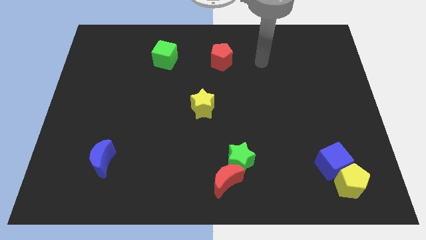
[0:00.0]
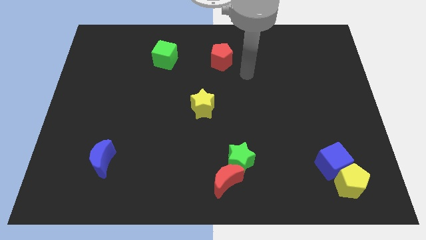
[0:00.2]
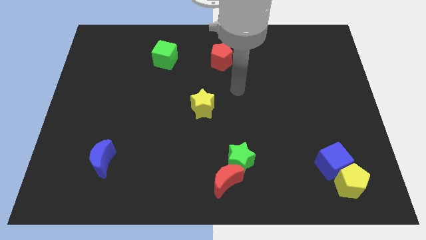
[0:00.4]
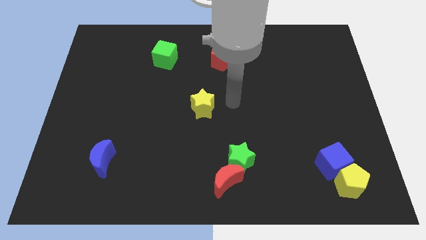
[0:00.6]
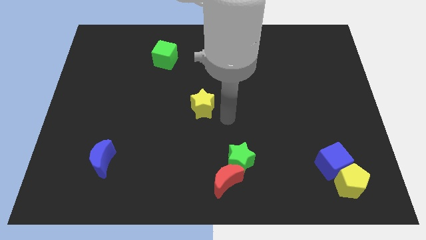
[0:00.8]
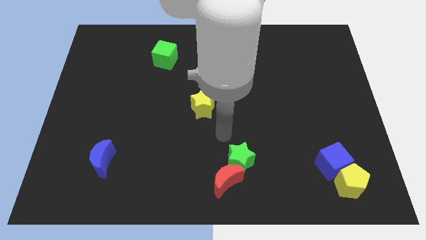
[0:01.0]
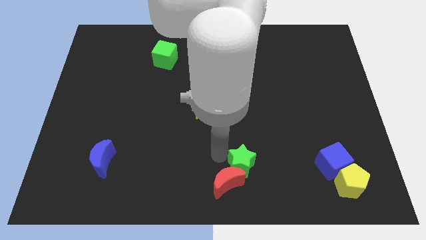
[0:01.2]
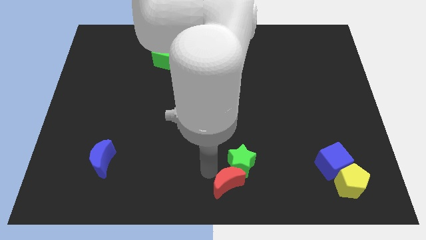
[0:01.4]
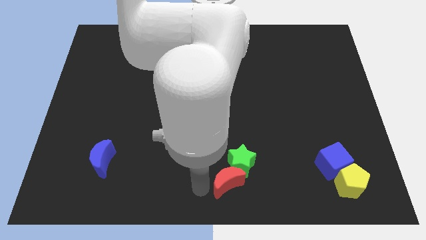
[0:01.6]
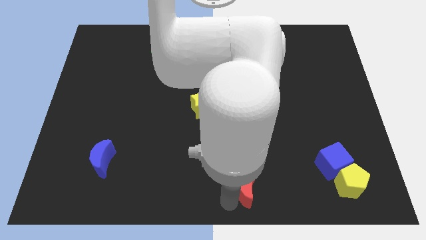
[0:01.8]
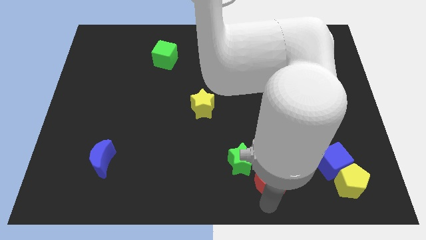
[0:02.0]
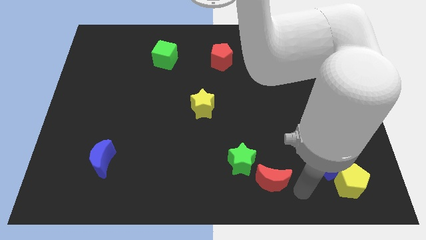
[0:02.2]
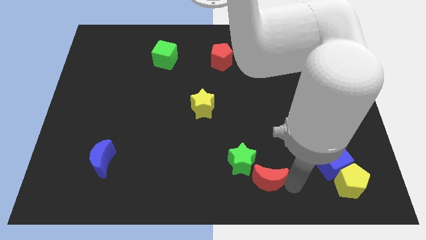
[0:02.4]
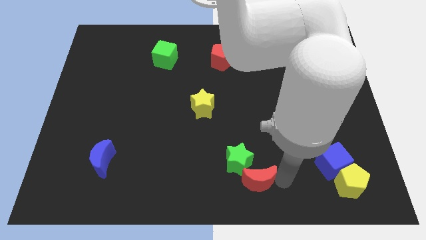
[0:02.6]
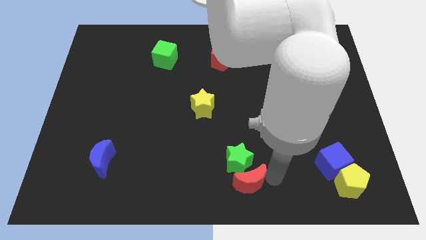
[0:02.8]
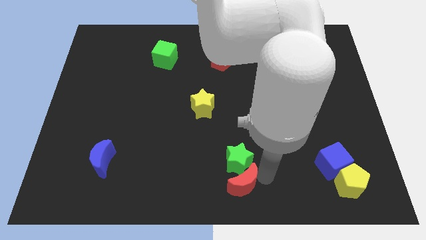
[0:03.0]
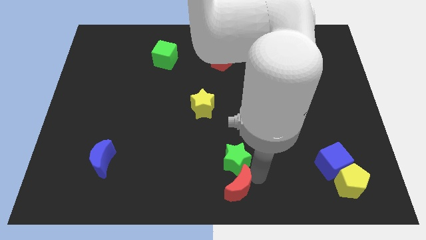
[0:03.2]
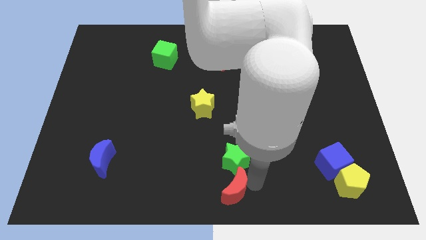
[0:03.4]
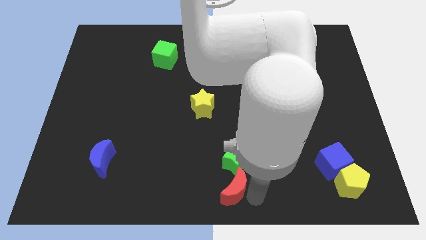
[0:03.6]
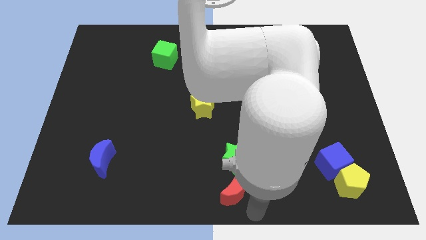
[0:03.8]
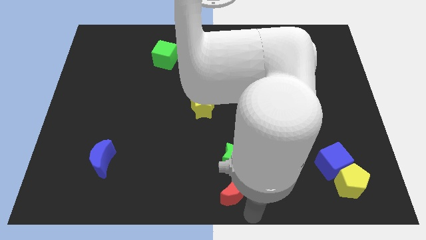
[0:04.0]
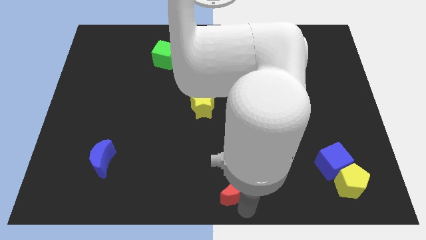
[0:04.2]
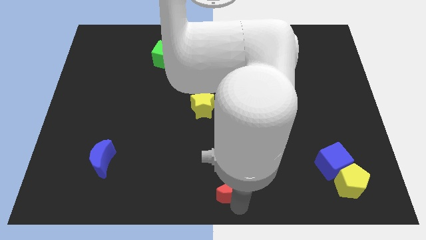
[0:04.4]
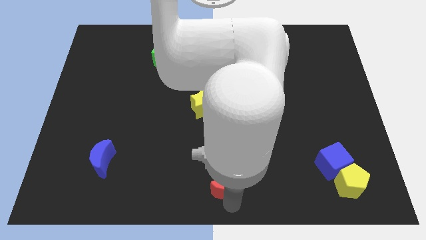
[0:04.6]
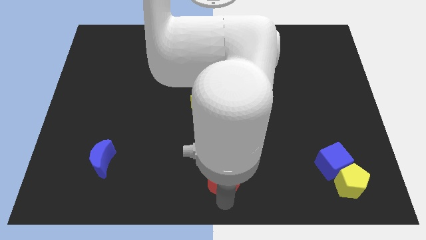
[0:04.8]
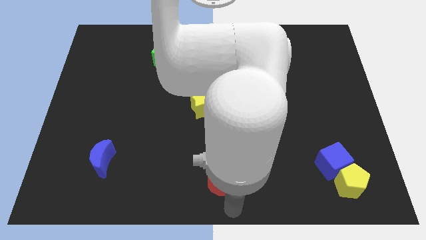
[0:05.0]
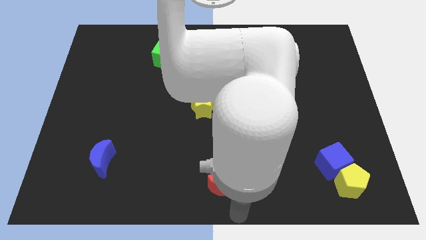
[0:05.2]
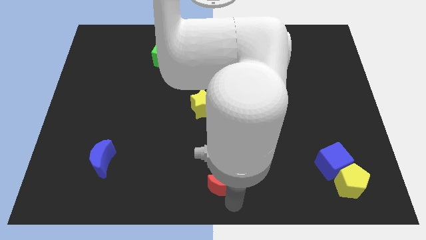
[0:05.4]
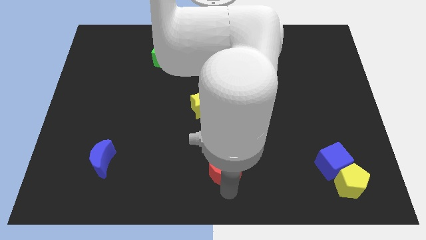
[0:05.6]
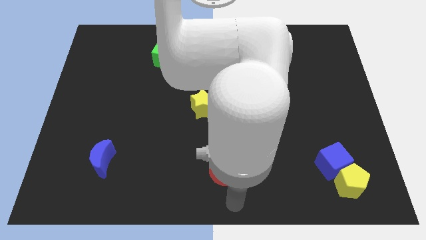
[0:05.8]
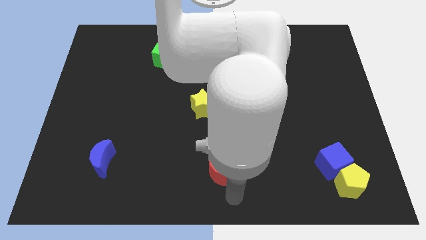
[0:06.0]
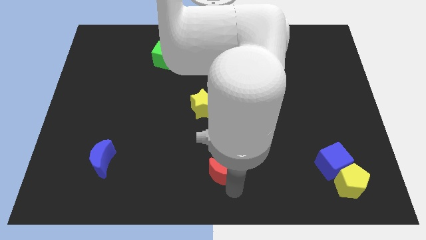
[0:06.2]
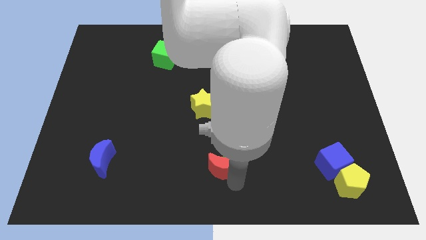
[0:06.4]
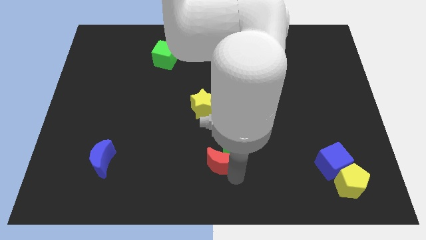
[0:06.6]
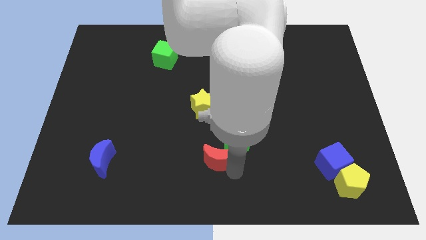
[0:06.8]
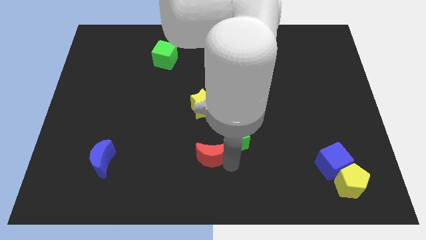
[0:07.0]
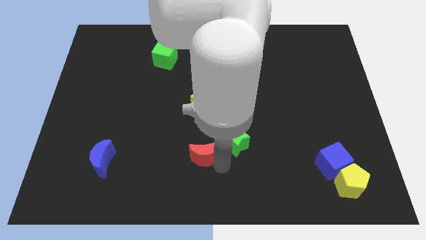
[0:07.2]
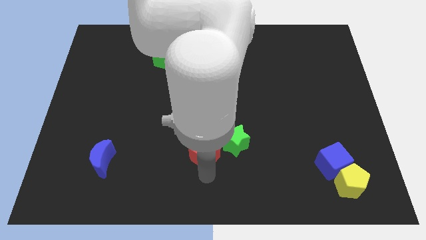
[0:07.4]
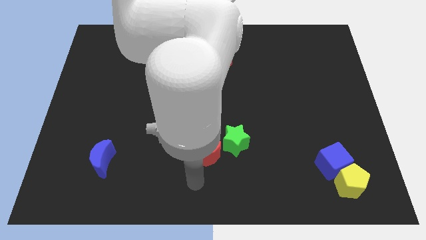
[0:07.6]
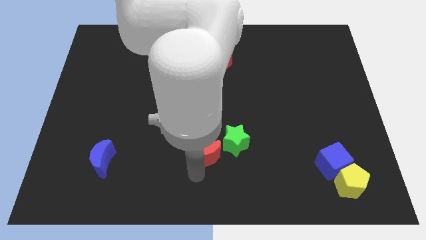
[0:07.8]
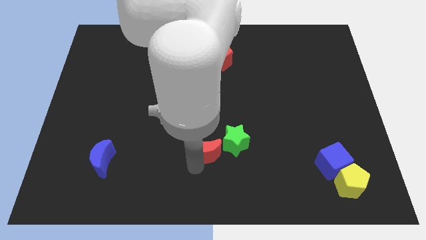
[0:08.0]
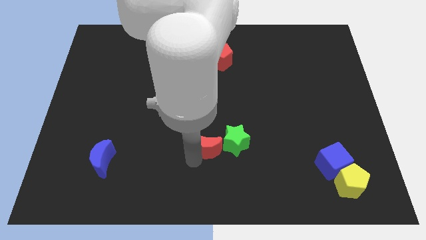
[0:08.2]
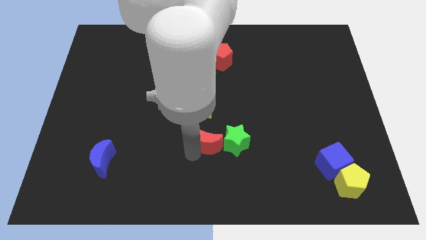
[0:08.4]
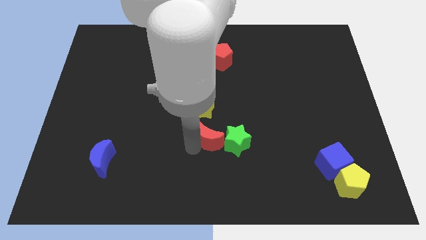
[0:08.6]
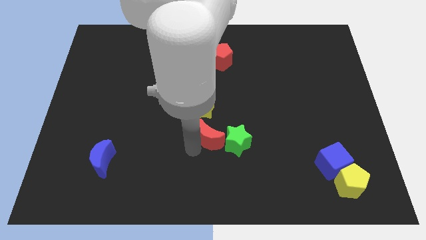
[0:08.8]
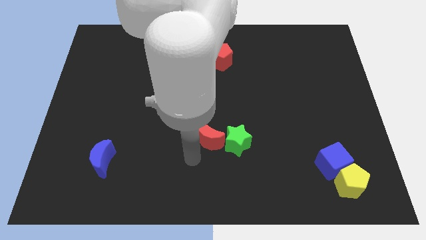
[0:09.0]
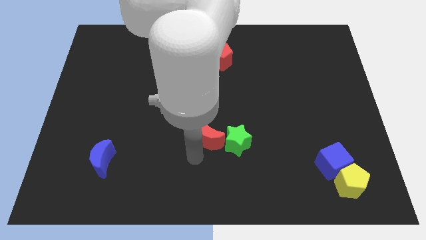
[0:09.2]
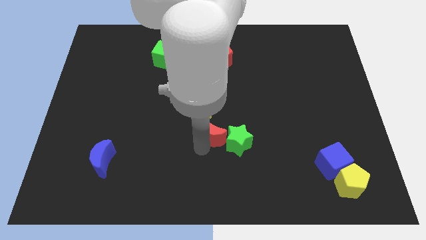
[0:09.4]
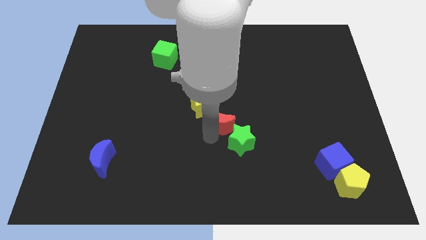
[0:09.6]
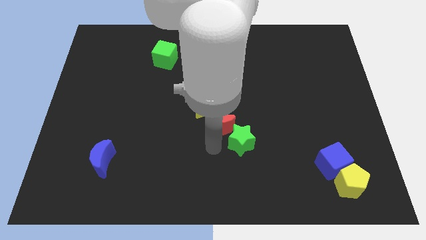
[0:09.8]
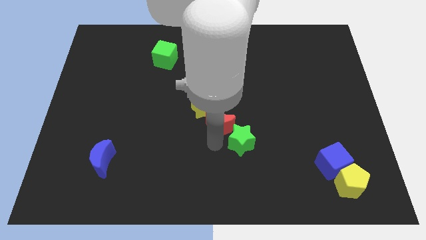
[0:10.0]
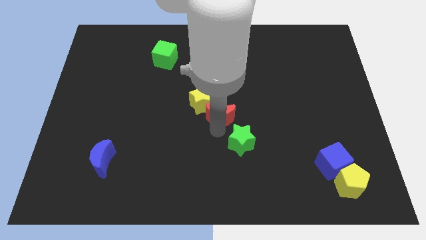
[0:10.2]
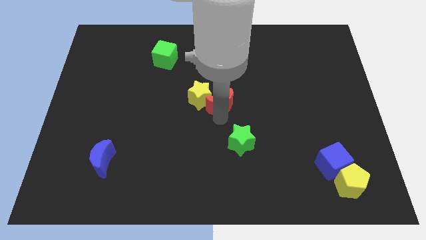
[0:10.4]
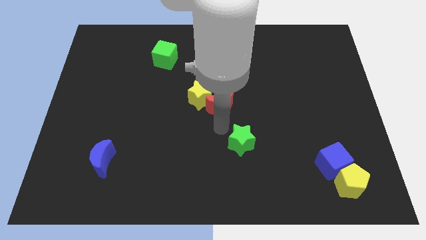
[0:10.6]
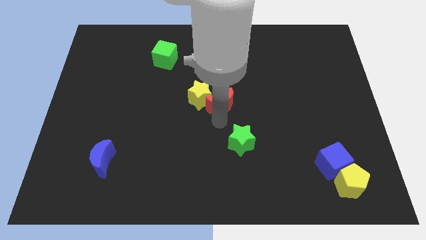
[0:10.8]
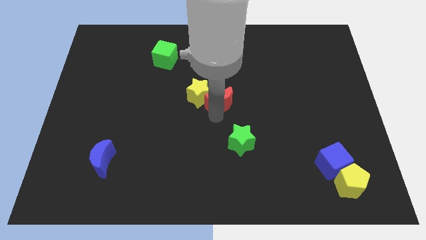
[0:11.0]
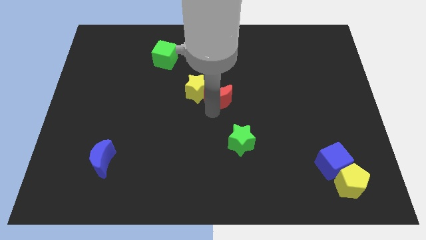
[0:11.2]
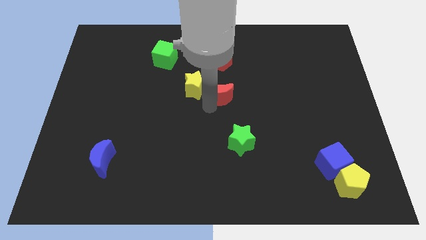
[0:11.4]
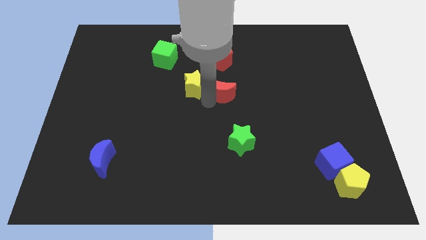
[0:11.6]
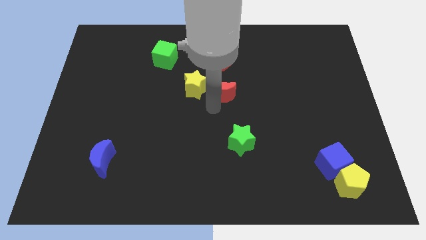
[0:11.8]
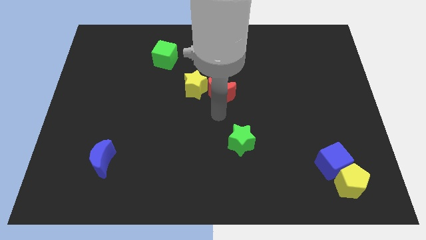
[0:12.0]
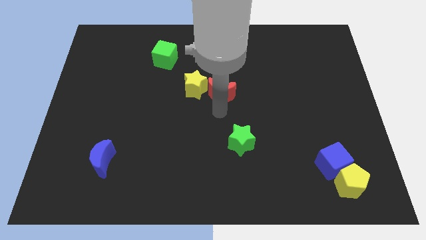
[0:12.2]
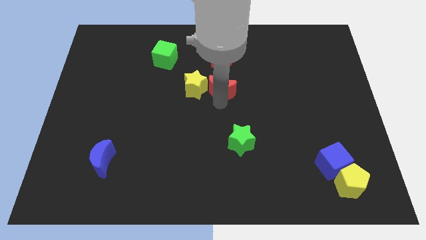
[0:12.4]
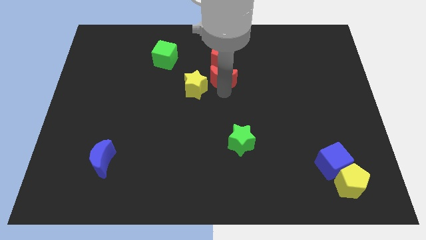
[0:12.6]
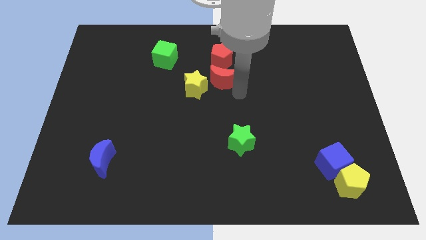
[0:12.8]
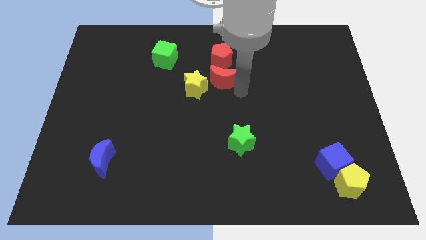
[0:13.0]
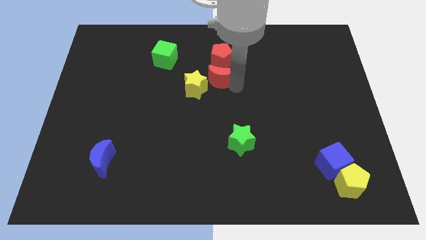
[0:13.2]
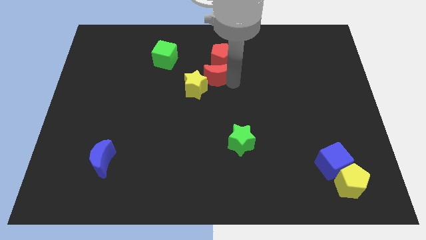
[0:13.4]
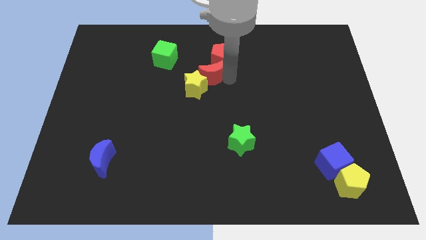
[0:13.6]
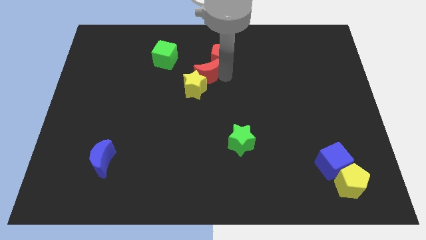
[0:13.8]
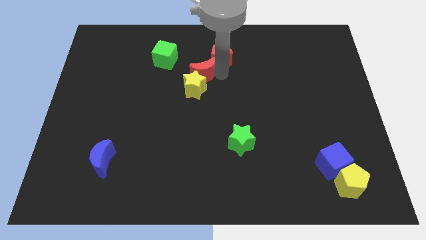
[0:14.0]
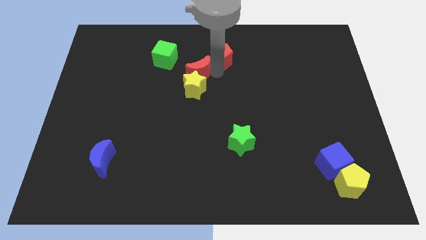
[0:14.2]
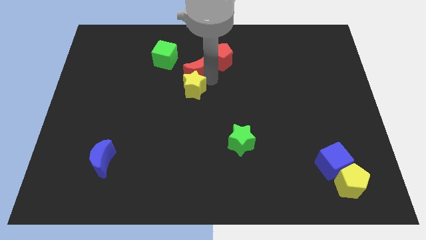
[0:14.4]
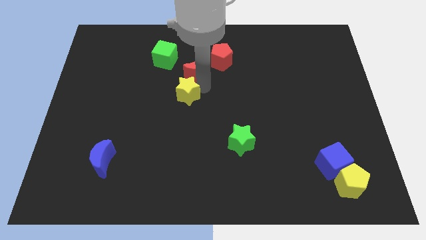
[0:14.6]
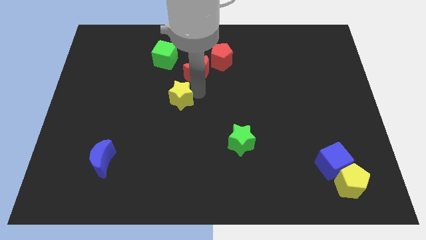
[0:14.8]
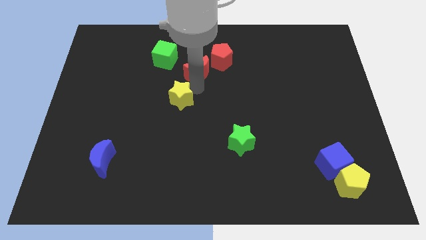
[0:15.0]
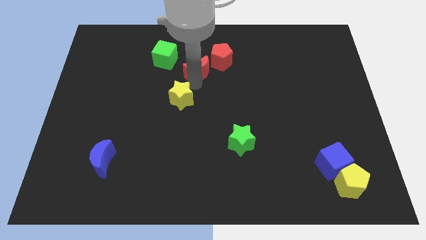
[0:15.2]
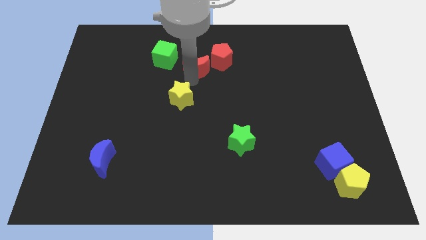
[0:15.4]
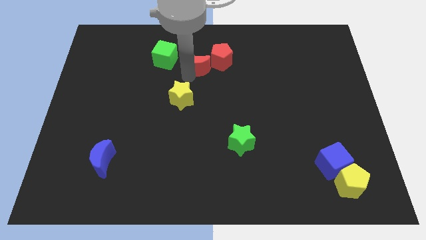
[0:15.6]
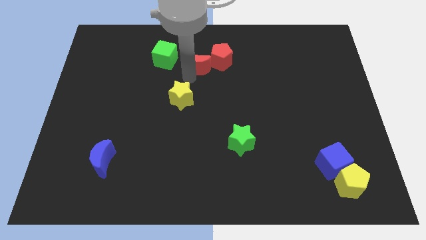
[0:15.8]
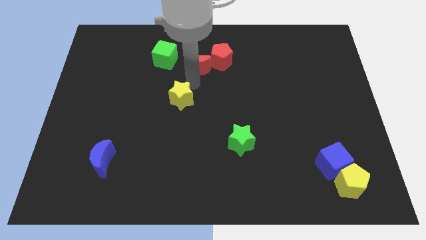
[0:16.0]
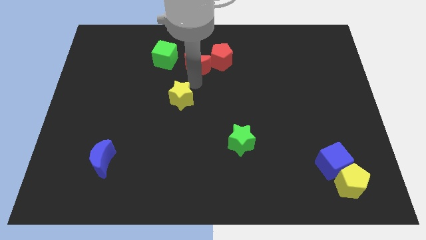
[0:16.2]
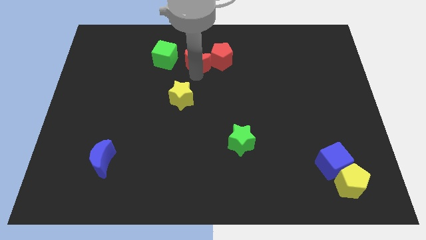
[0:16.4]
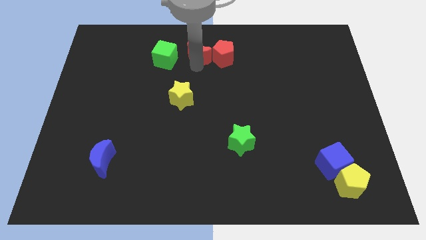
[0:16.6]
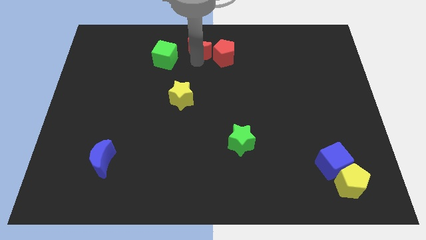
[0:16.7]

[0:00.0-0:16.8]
slide the red moon to the top
